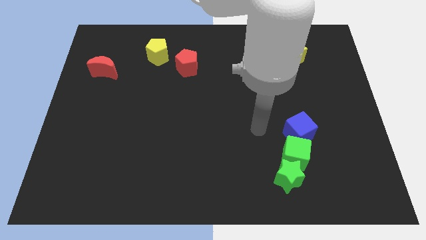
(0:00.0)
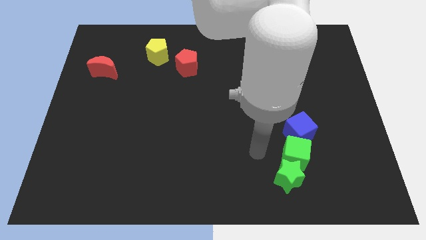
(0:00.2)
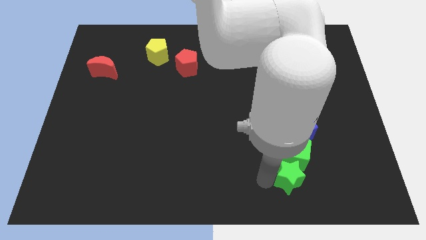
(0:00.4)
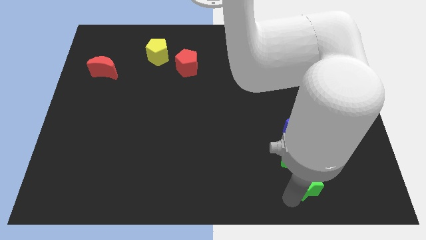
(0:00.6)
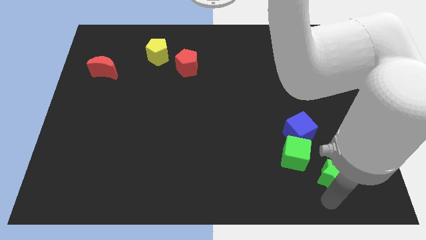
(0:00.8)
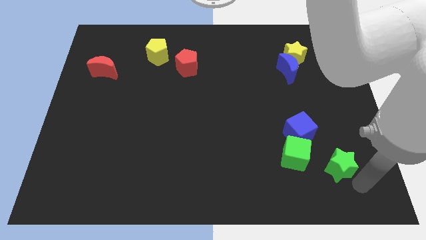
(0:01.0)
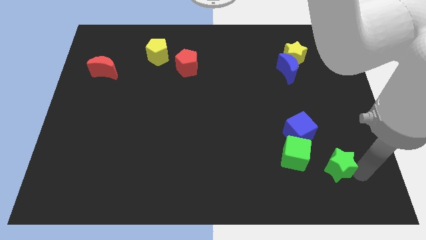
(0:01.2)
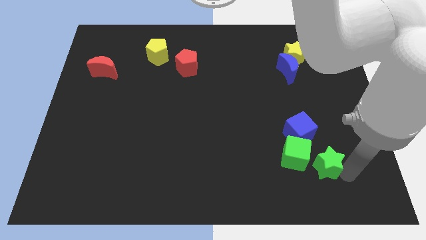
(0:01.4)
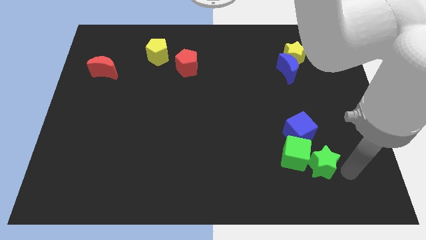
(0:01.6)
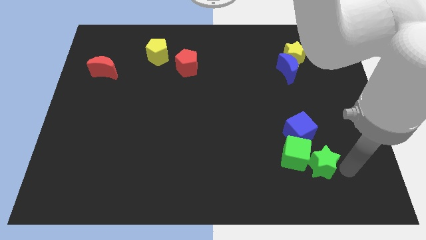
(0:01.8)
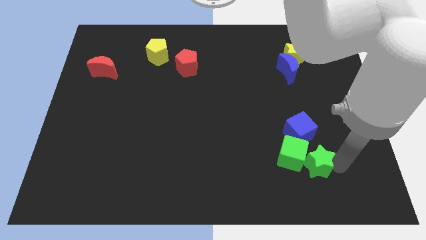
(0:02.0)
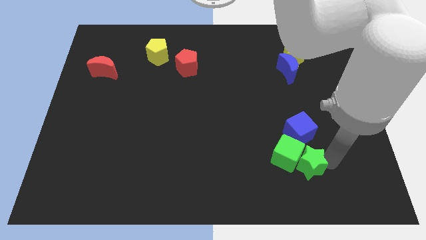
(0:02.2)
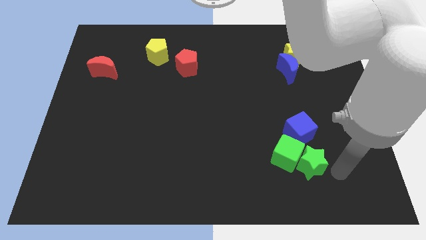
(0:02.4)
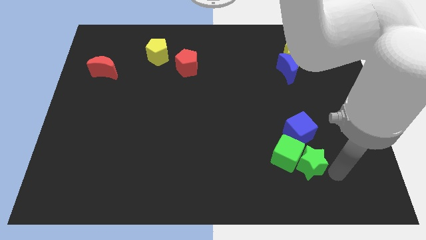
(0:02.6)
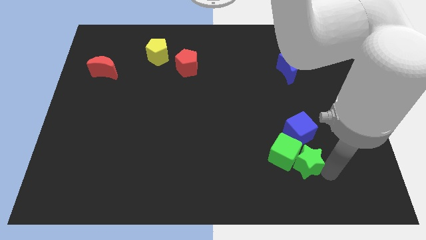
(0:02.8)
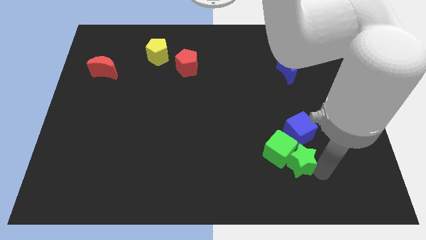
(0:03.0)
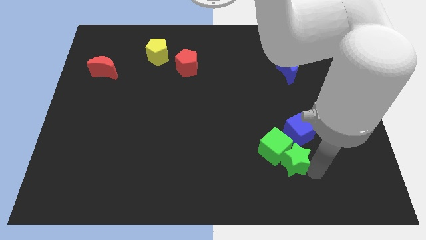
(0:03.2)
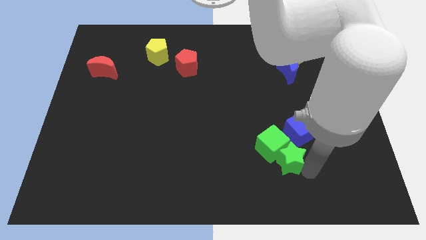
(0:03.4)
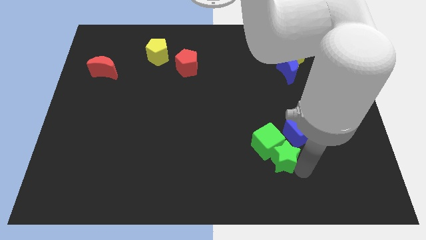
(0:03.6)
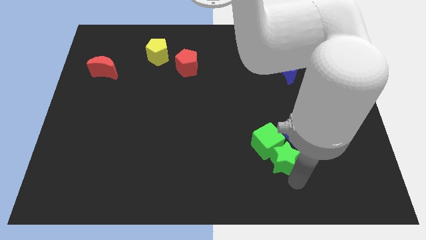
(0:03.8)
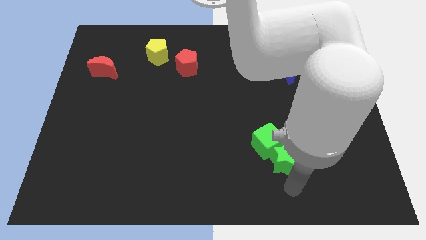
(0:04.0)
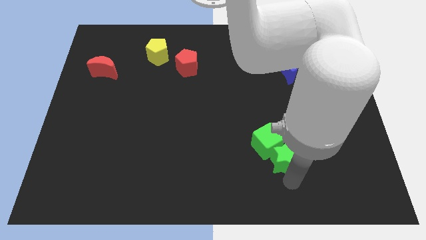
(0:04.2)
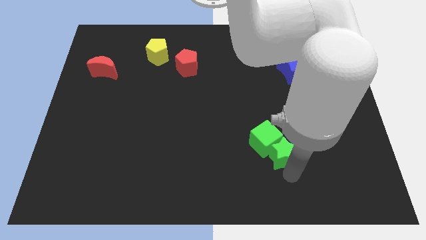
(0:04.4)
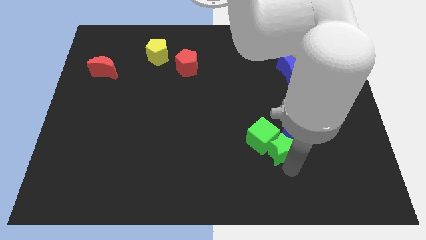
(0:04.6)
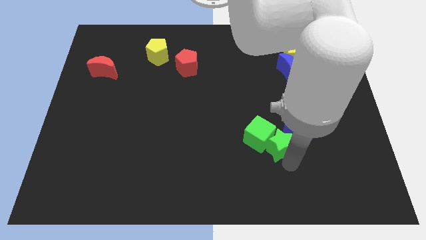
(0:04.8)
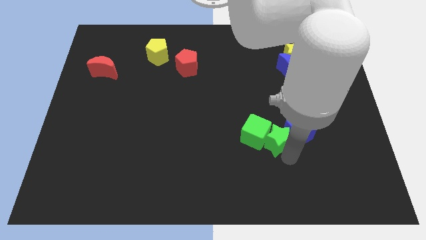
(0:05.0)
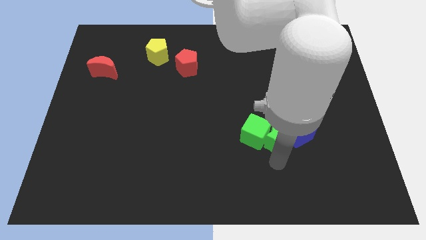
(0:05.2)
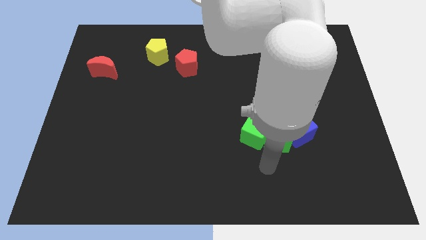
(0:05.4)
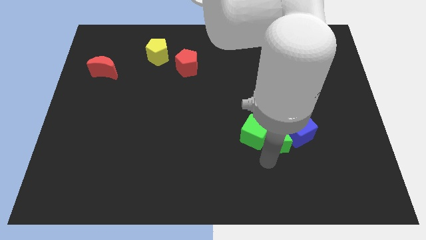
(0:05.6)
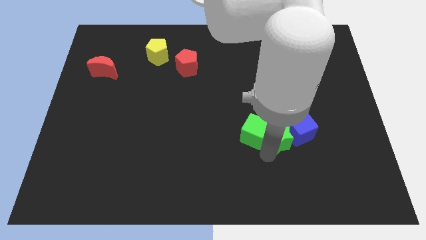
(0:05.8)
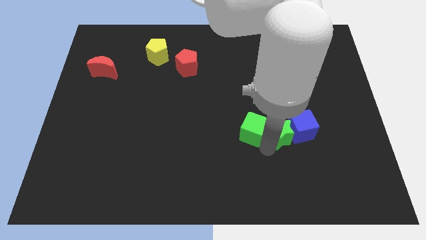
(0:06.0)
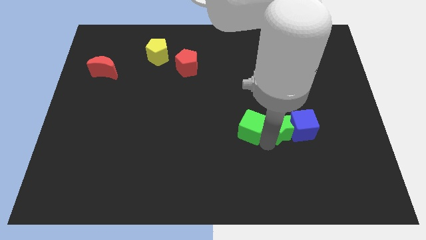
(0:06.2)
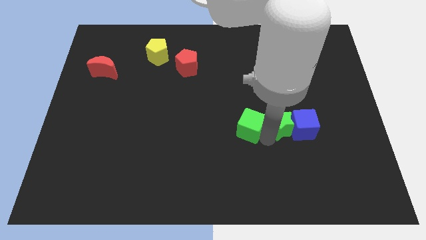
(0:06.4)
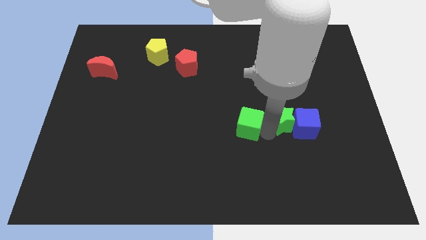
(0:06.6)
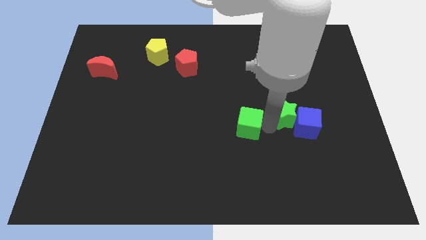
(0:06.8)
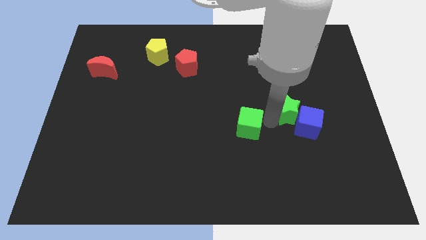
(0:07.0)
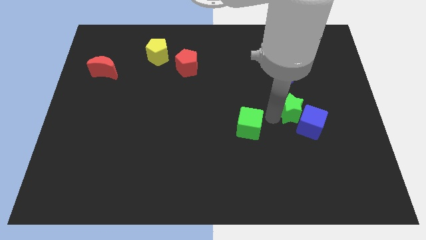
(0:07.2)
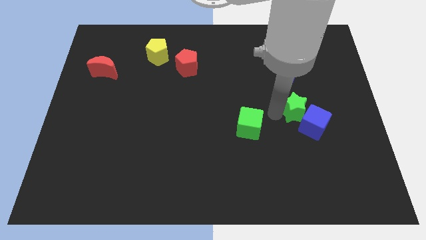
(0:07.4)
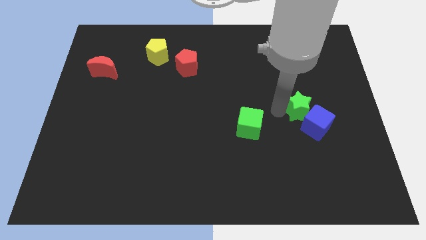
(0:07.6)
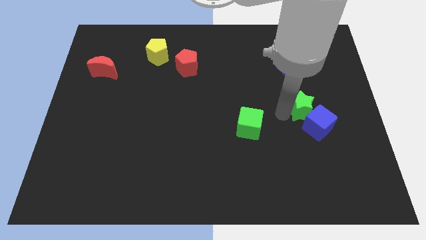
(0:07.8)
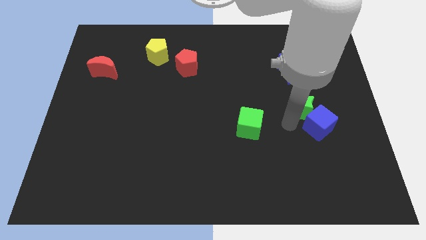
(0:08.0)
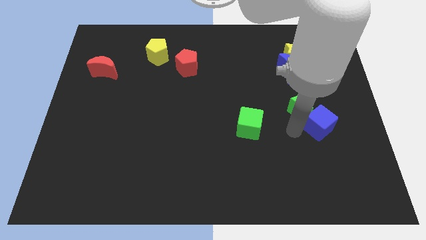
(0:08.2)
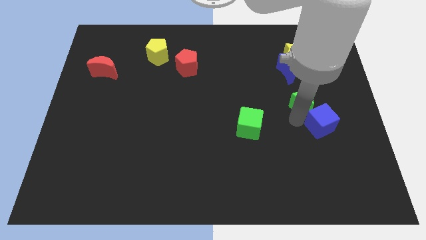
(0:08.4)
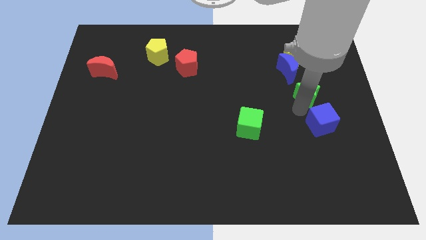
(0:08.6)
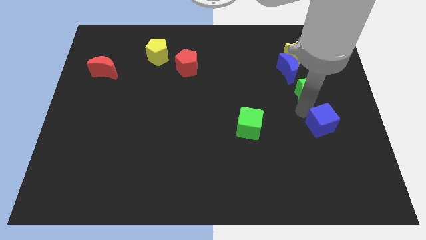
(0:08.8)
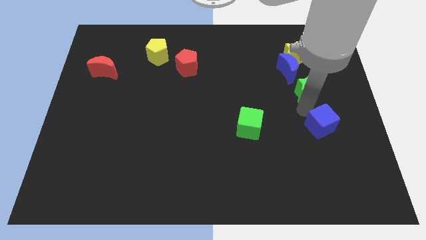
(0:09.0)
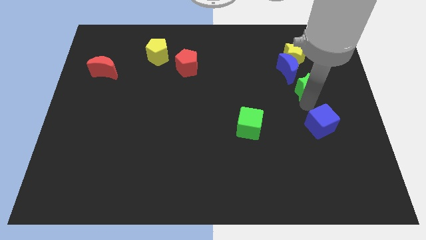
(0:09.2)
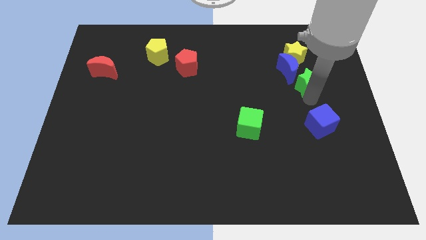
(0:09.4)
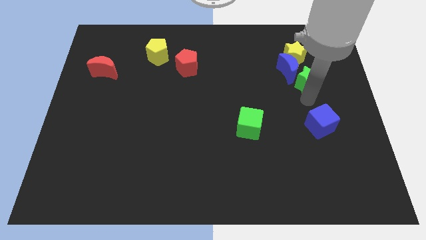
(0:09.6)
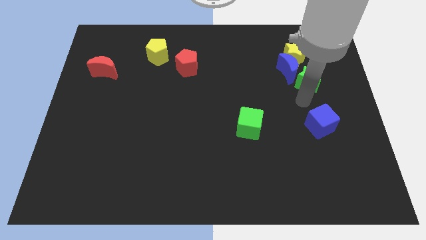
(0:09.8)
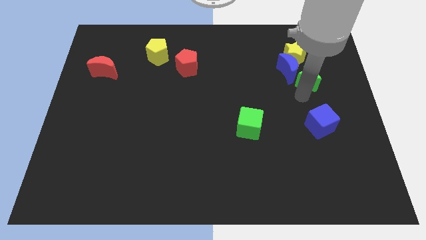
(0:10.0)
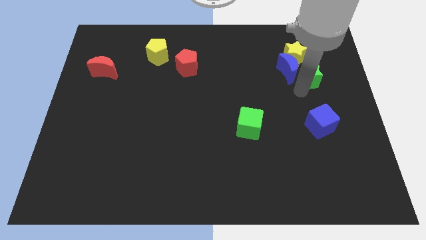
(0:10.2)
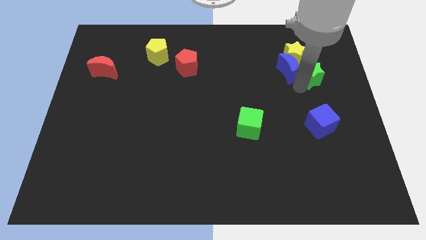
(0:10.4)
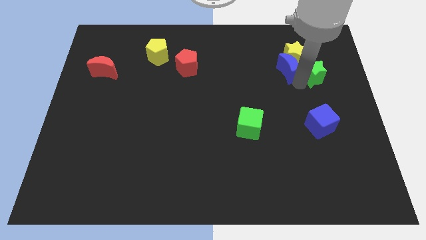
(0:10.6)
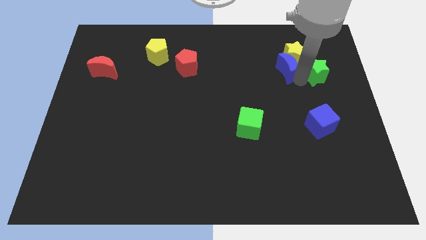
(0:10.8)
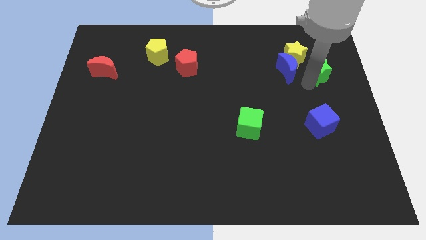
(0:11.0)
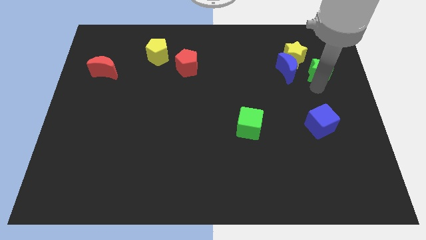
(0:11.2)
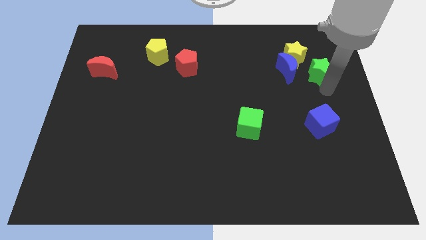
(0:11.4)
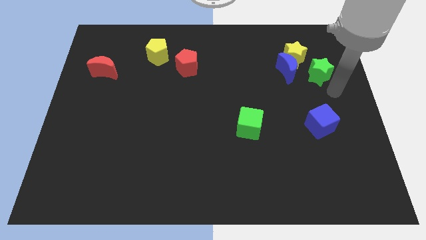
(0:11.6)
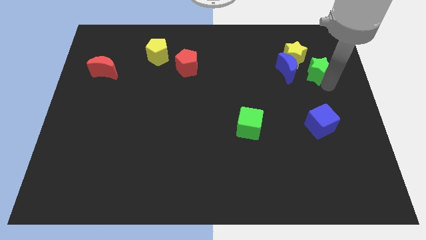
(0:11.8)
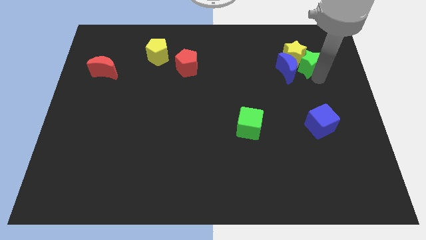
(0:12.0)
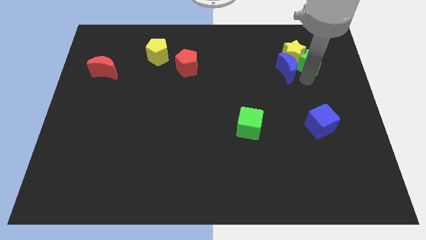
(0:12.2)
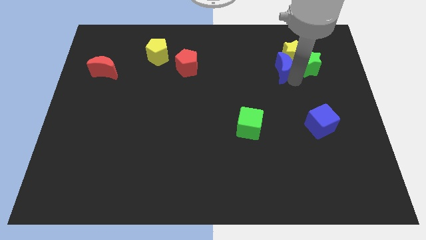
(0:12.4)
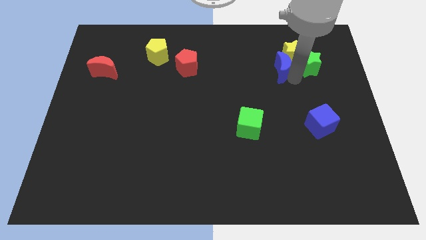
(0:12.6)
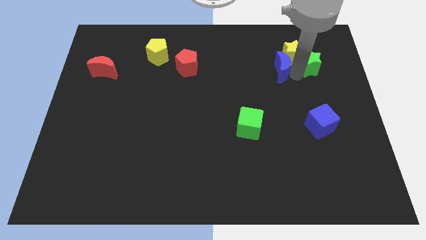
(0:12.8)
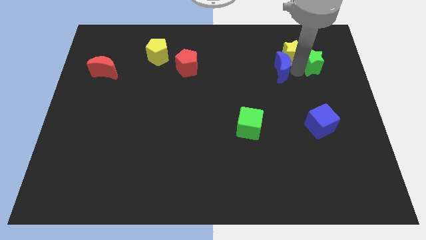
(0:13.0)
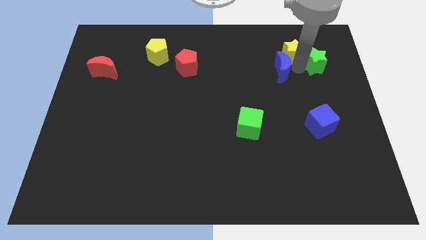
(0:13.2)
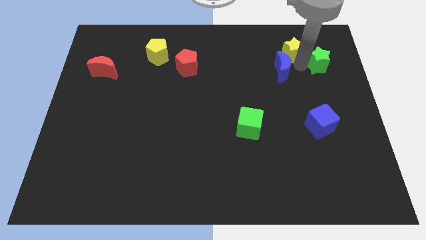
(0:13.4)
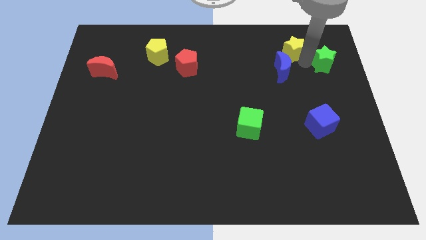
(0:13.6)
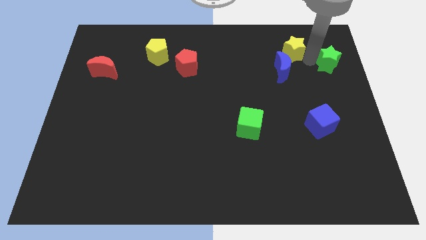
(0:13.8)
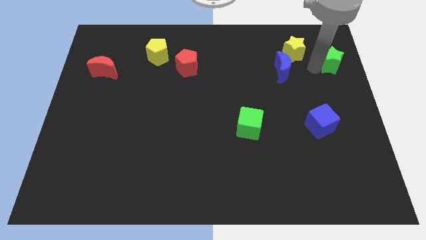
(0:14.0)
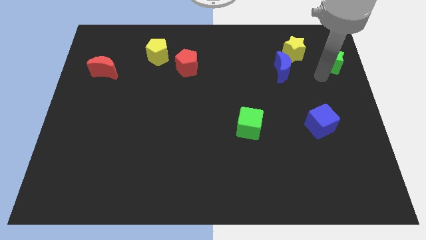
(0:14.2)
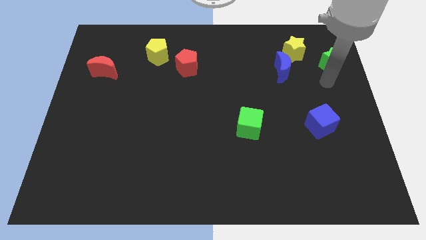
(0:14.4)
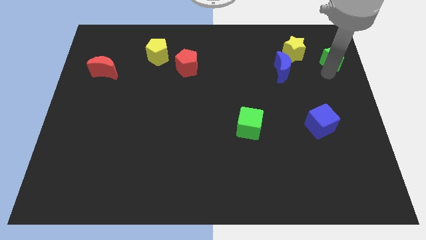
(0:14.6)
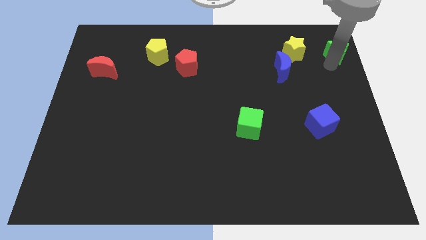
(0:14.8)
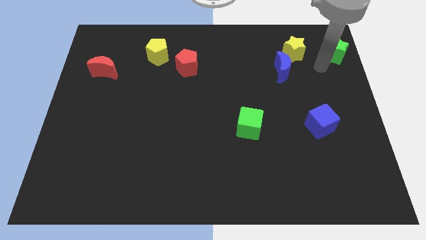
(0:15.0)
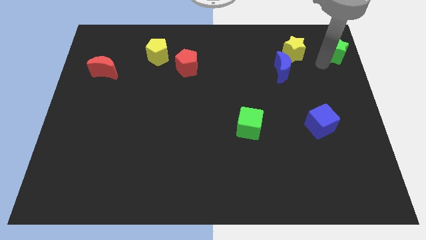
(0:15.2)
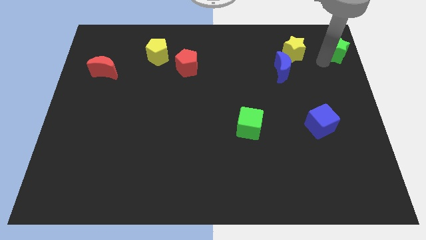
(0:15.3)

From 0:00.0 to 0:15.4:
push the green star to the top right of the board
